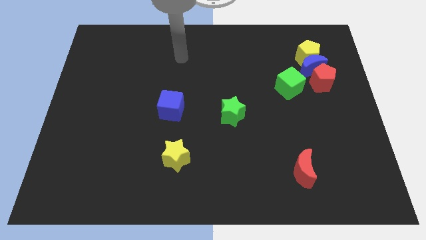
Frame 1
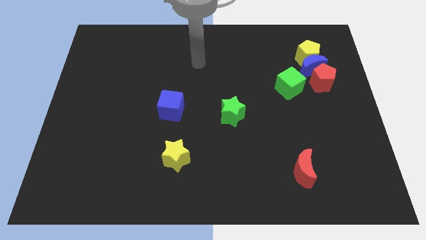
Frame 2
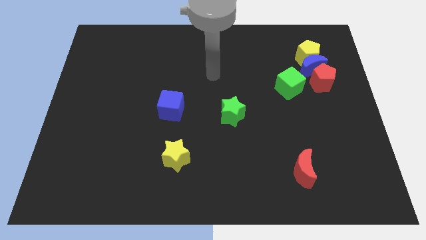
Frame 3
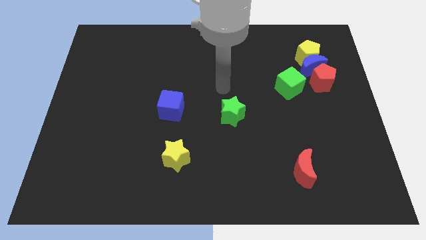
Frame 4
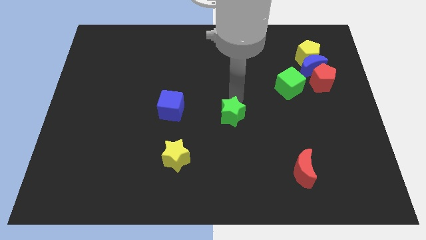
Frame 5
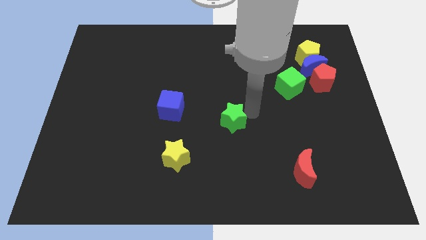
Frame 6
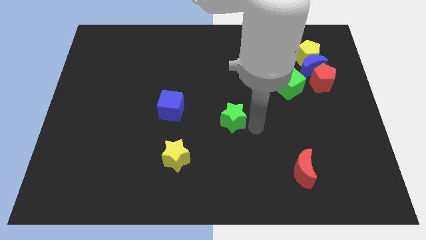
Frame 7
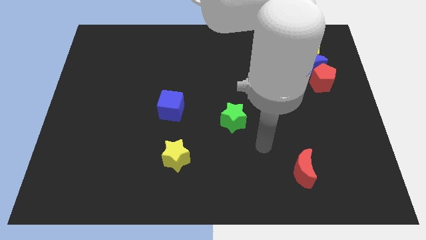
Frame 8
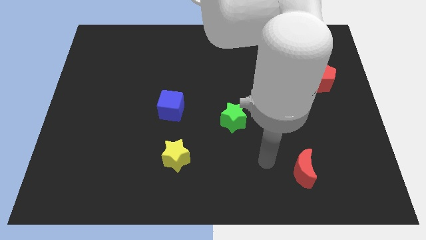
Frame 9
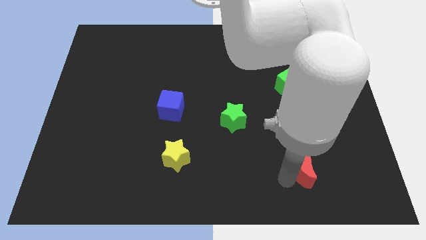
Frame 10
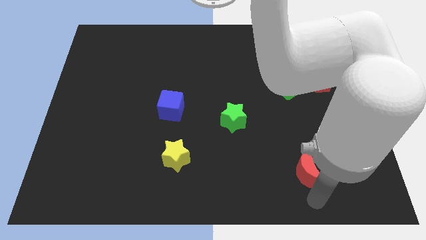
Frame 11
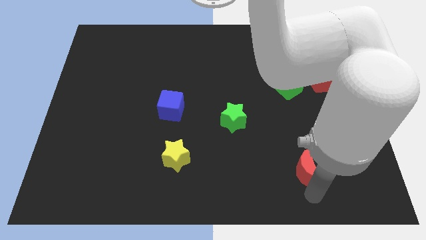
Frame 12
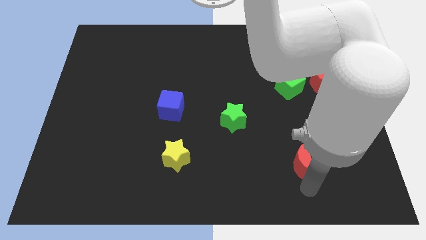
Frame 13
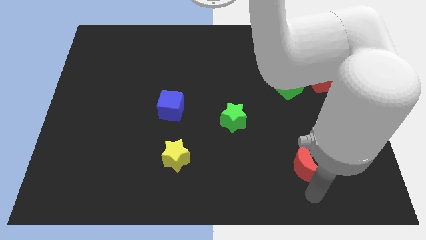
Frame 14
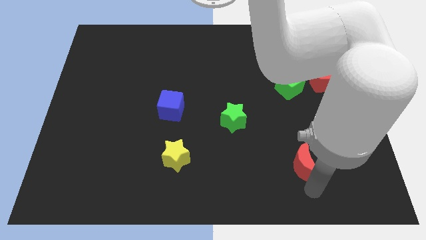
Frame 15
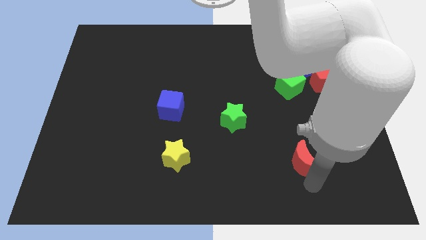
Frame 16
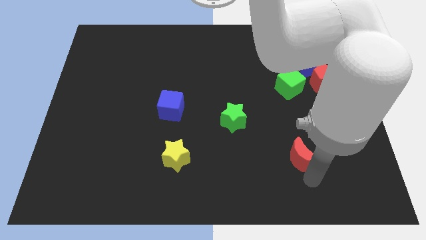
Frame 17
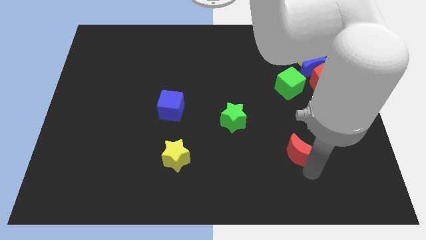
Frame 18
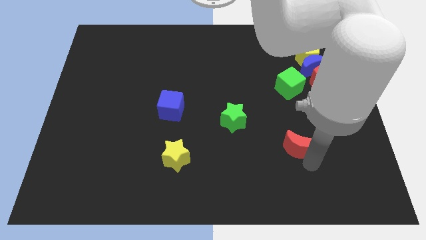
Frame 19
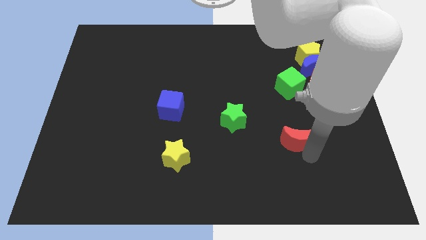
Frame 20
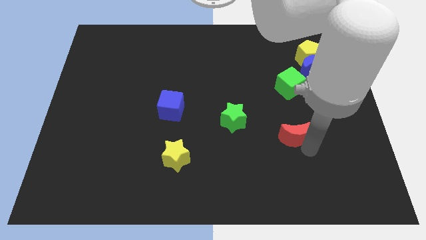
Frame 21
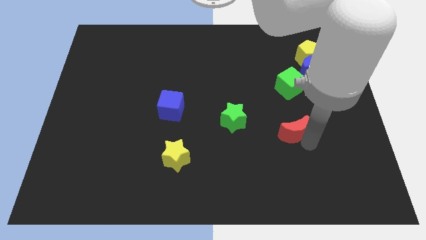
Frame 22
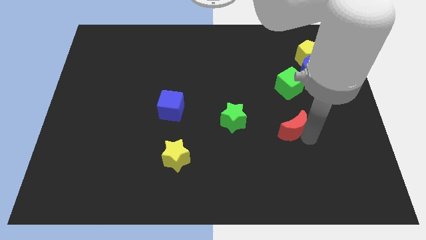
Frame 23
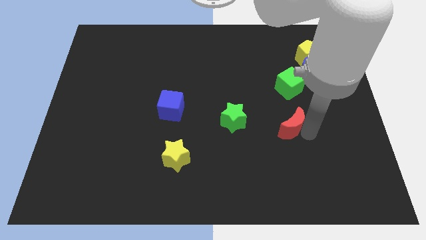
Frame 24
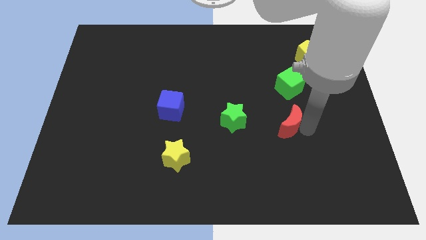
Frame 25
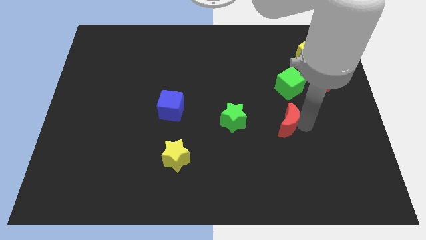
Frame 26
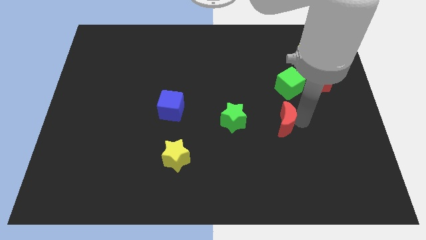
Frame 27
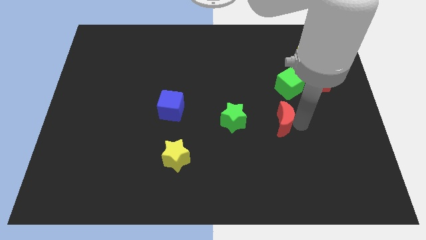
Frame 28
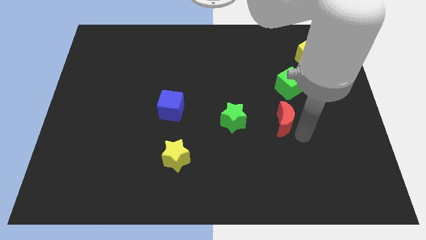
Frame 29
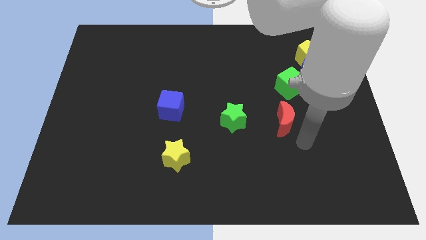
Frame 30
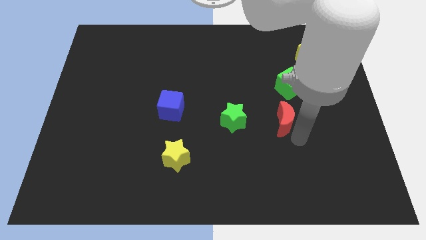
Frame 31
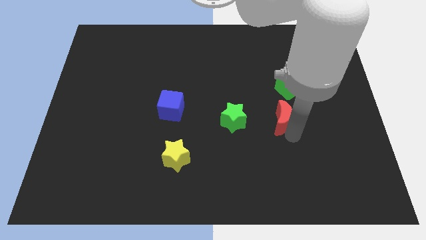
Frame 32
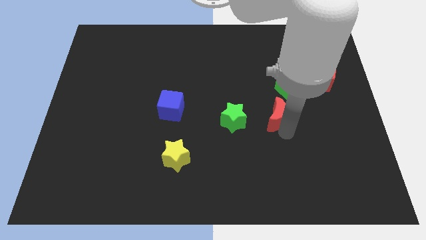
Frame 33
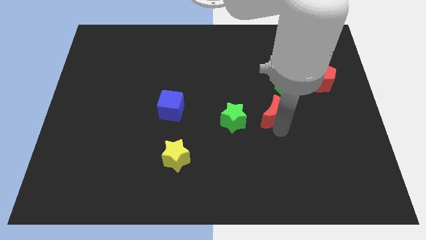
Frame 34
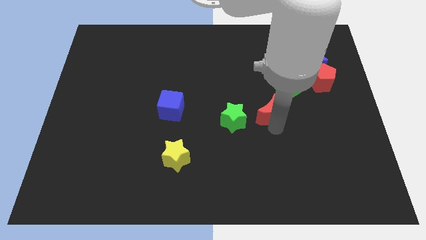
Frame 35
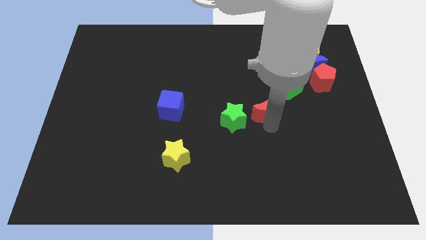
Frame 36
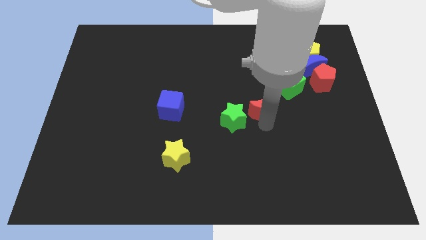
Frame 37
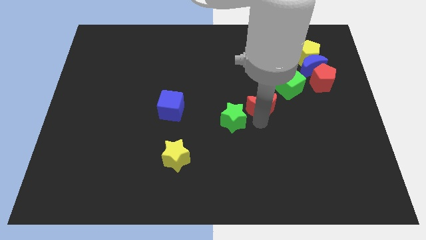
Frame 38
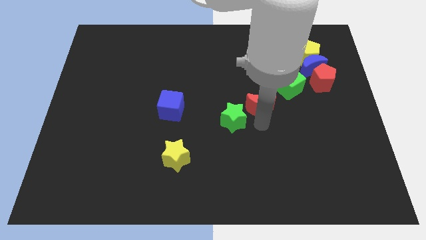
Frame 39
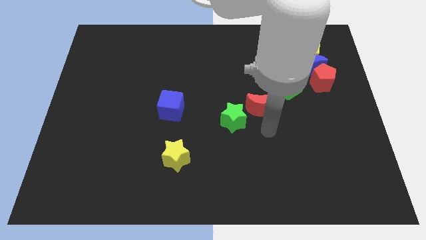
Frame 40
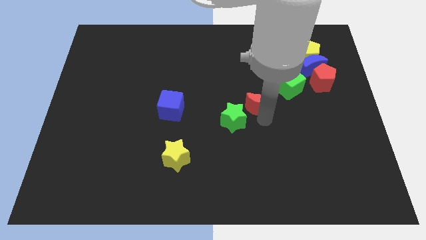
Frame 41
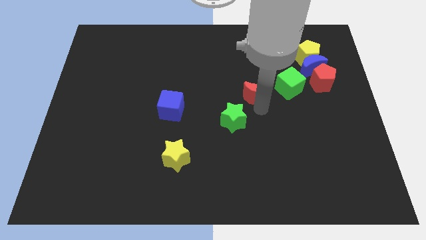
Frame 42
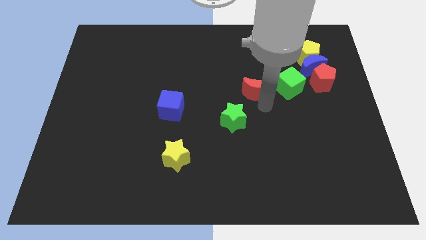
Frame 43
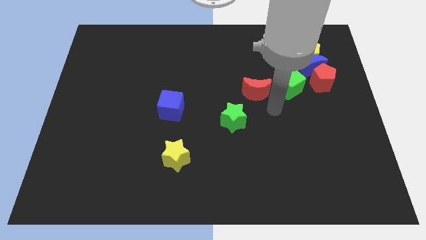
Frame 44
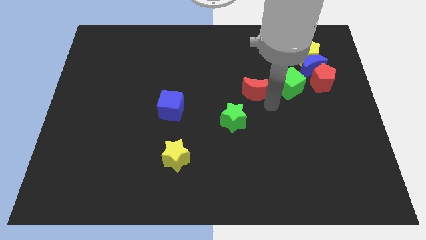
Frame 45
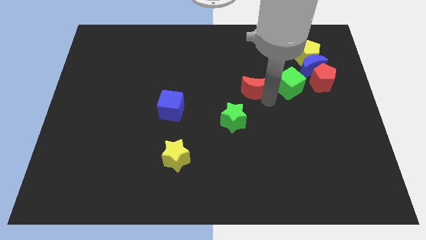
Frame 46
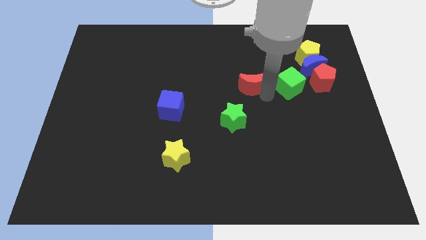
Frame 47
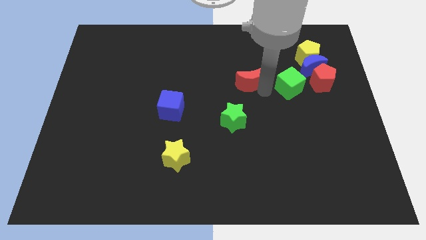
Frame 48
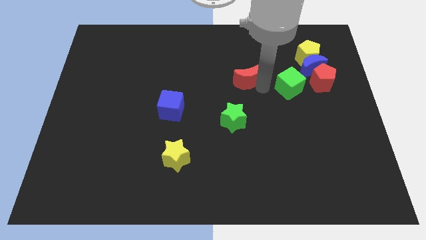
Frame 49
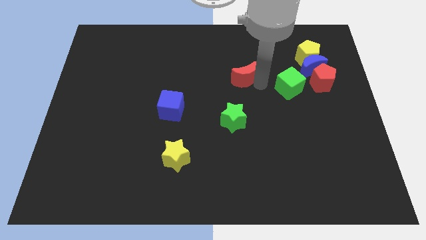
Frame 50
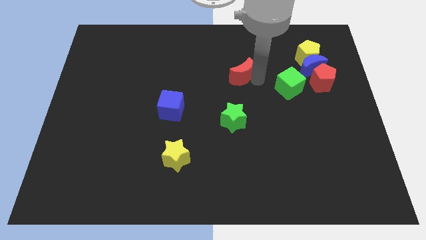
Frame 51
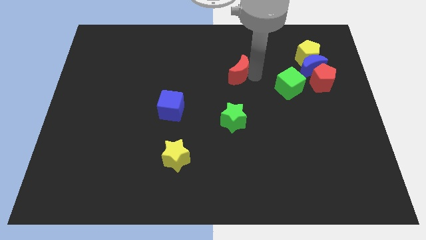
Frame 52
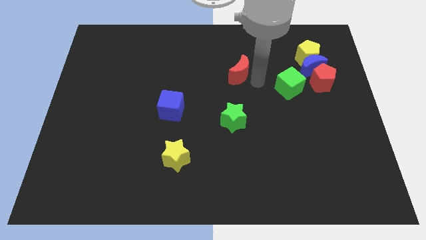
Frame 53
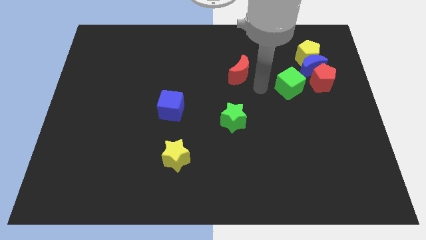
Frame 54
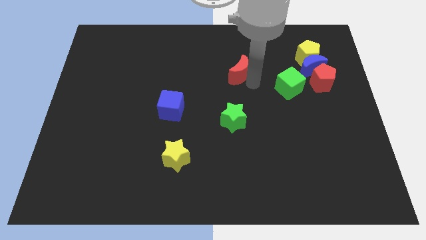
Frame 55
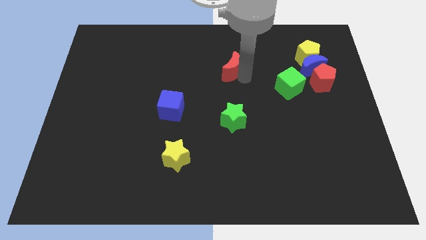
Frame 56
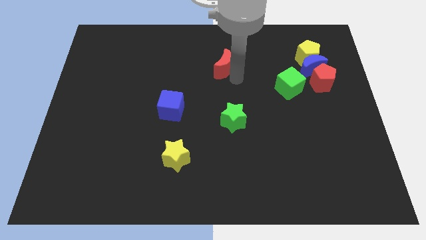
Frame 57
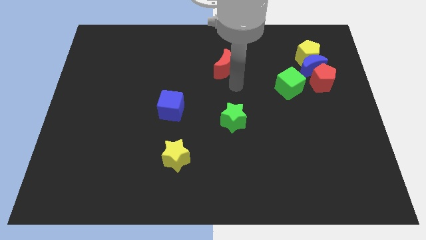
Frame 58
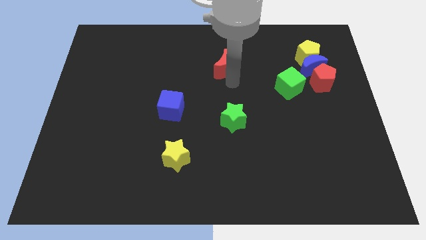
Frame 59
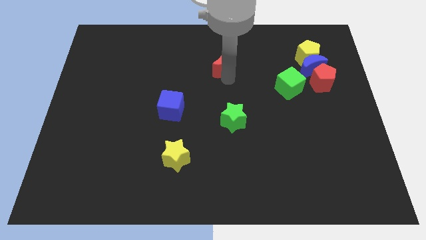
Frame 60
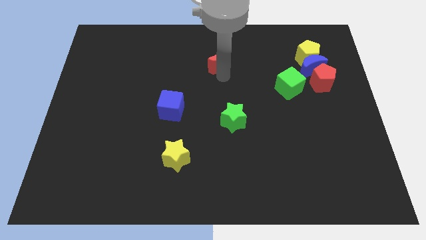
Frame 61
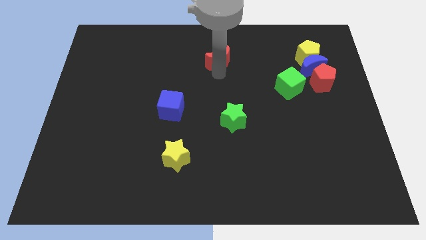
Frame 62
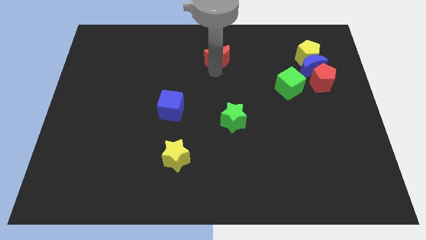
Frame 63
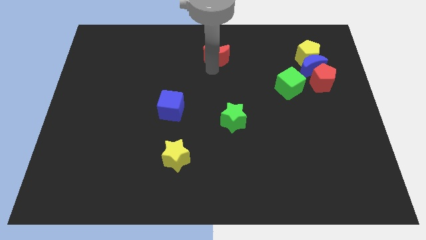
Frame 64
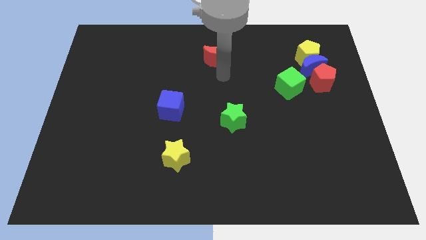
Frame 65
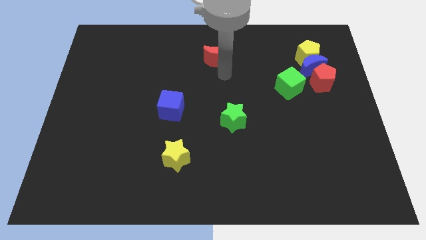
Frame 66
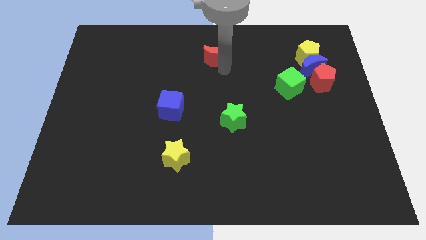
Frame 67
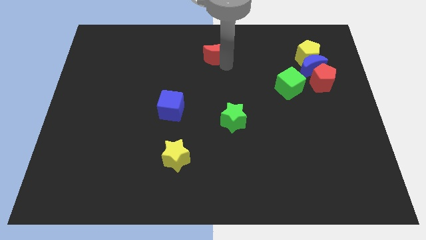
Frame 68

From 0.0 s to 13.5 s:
push the red moon to the towards your base
